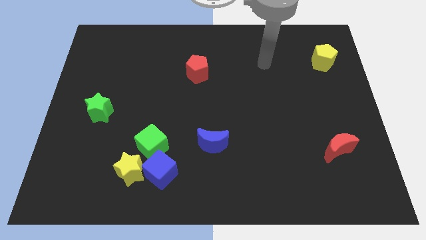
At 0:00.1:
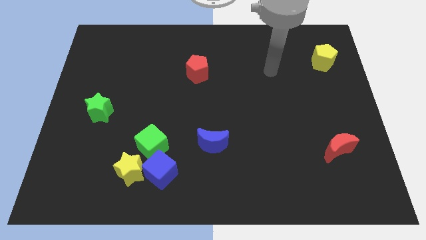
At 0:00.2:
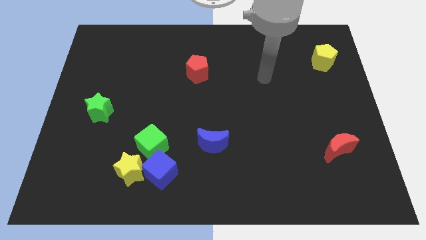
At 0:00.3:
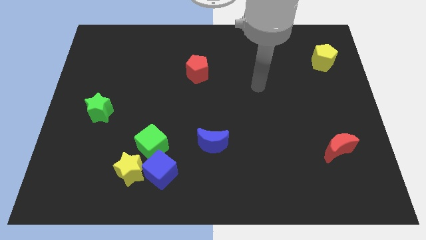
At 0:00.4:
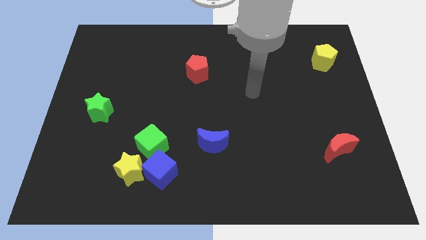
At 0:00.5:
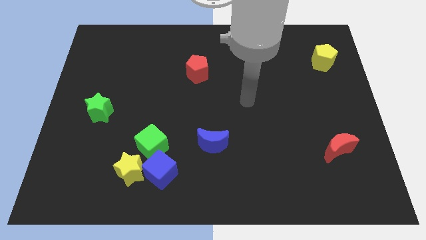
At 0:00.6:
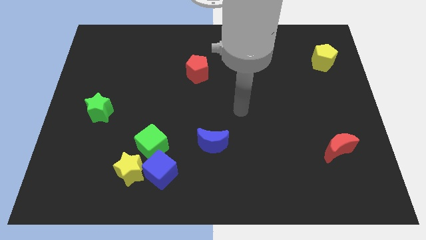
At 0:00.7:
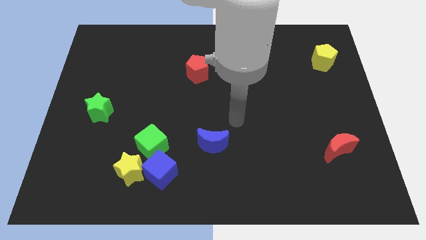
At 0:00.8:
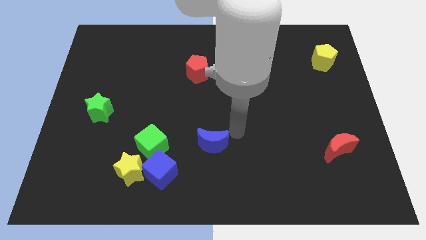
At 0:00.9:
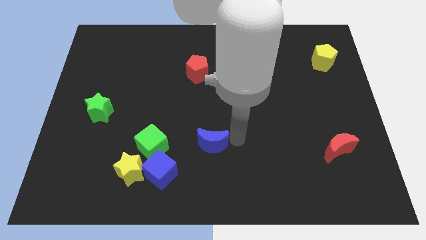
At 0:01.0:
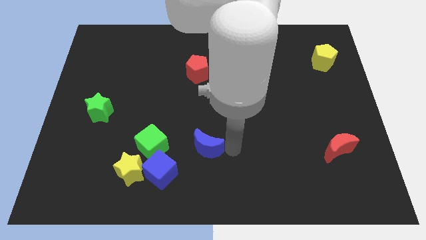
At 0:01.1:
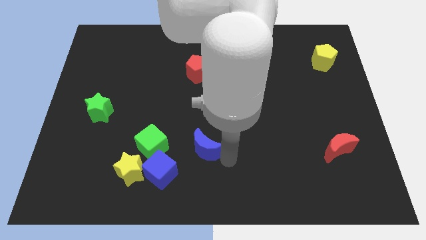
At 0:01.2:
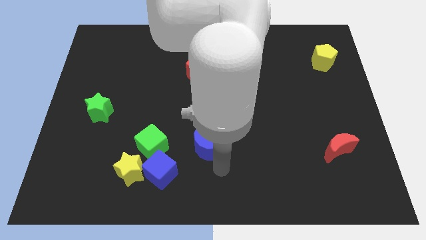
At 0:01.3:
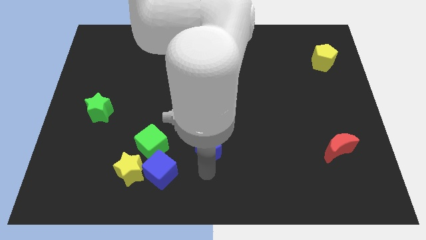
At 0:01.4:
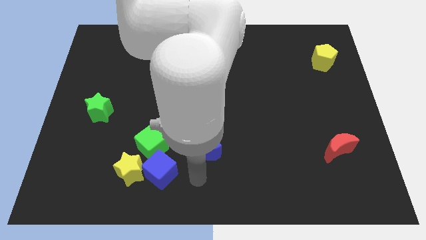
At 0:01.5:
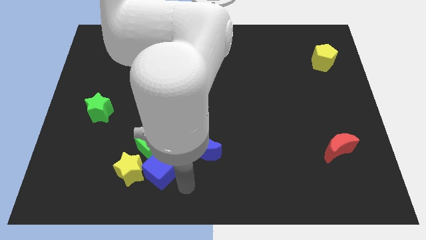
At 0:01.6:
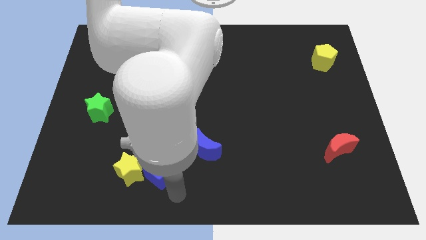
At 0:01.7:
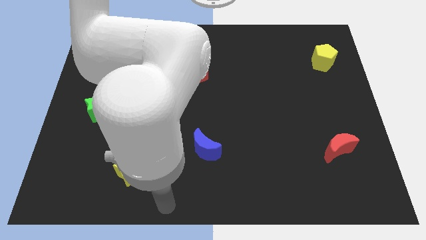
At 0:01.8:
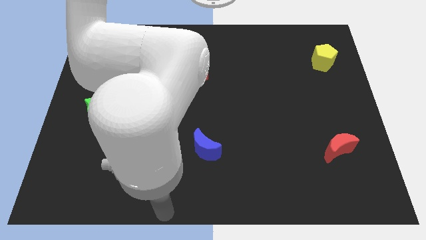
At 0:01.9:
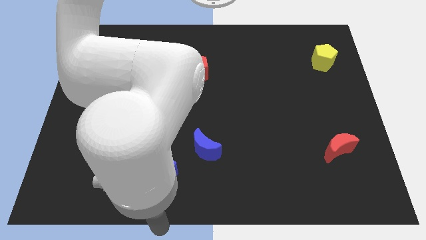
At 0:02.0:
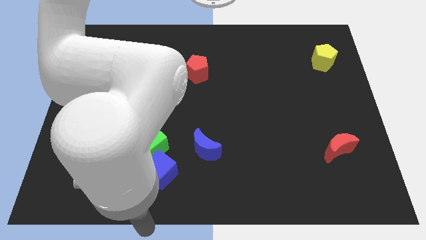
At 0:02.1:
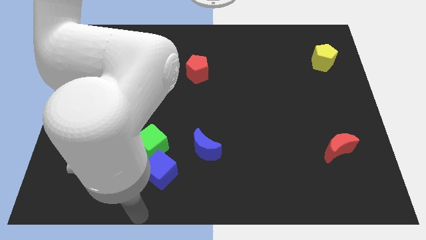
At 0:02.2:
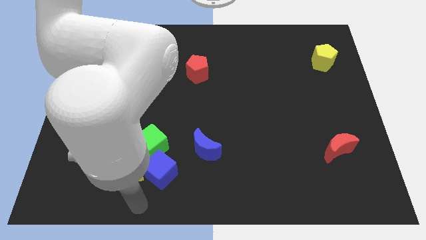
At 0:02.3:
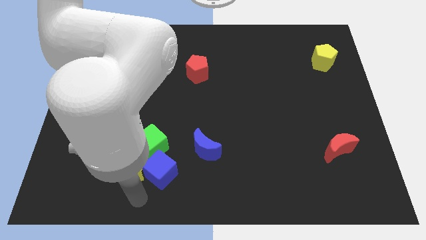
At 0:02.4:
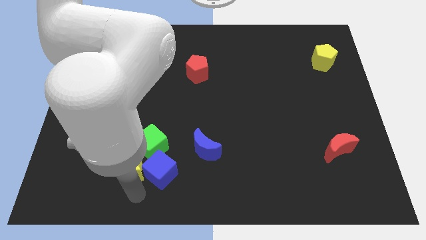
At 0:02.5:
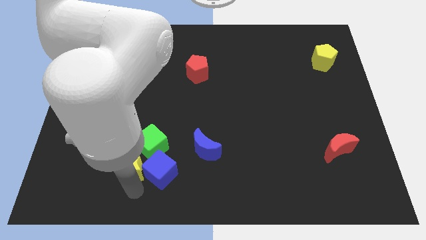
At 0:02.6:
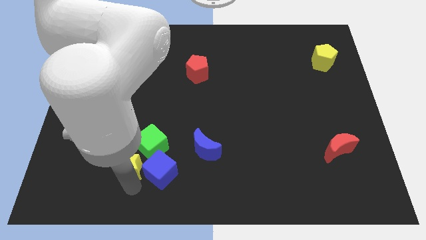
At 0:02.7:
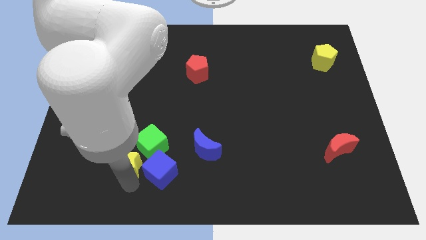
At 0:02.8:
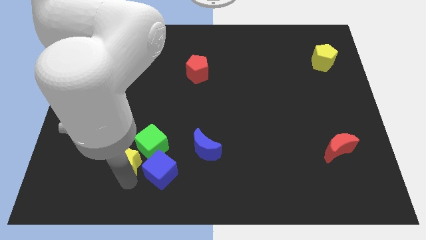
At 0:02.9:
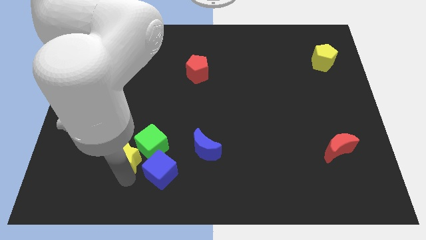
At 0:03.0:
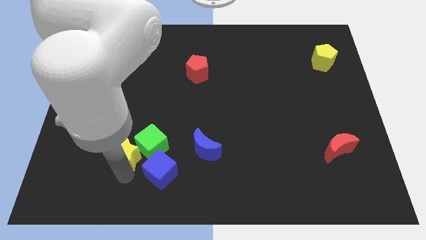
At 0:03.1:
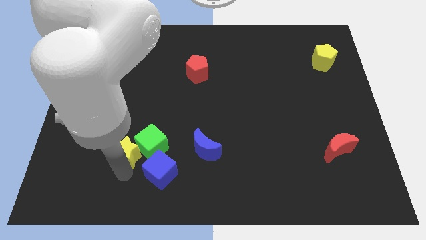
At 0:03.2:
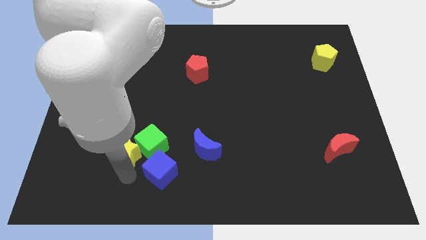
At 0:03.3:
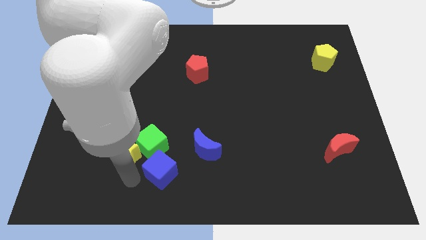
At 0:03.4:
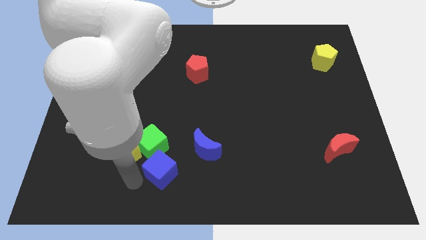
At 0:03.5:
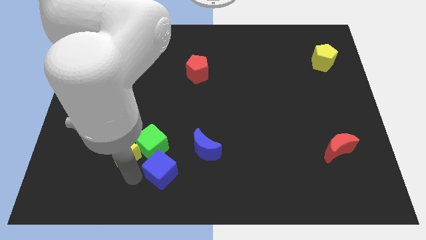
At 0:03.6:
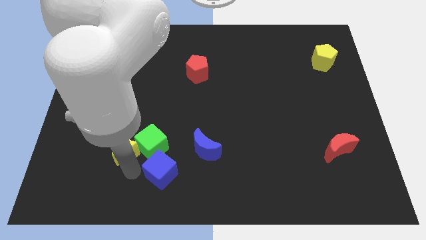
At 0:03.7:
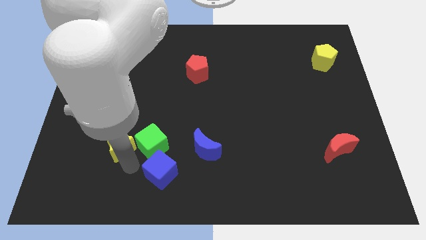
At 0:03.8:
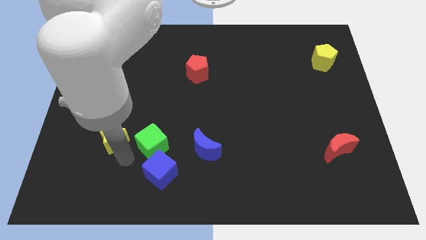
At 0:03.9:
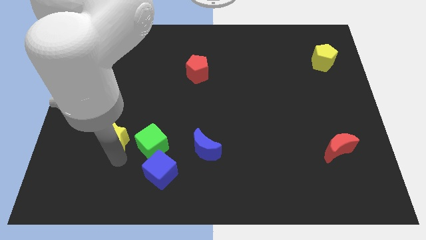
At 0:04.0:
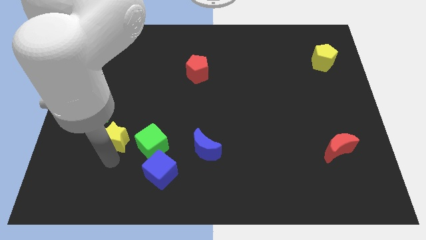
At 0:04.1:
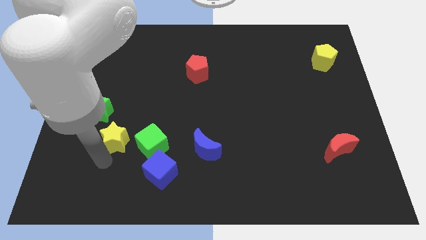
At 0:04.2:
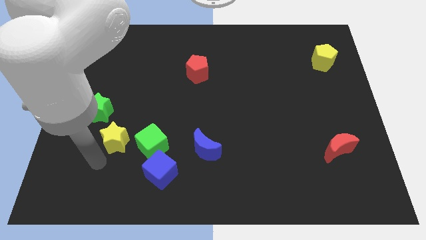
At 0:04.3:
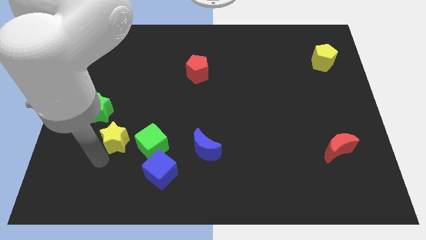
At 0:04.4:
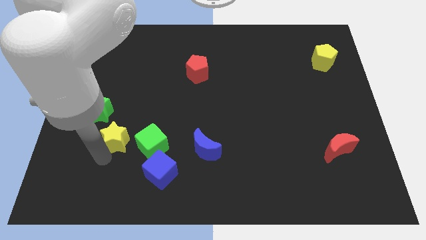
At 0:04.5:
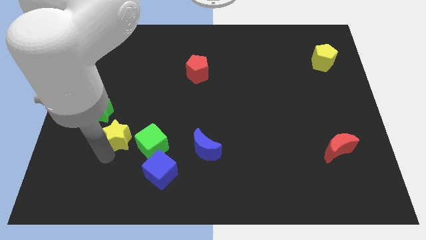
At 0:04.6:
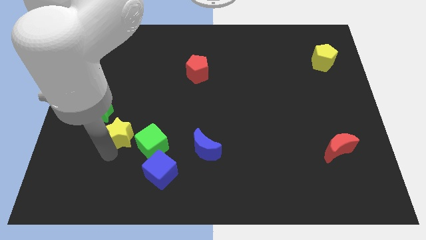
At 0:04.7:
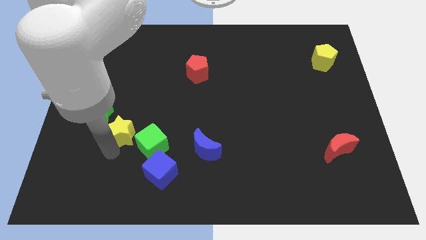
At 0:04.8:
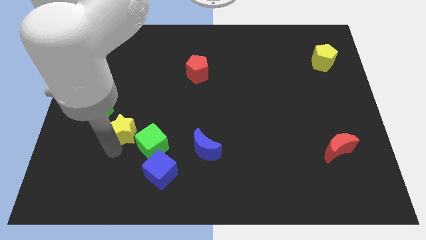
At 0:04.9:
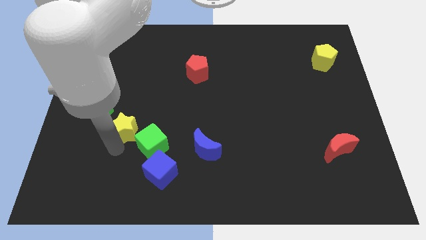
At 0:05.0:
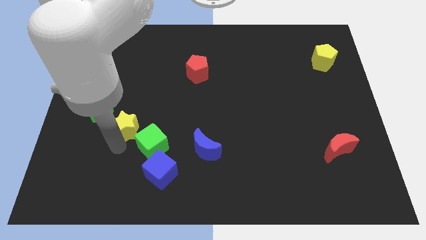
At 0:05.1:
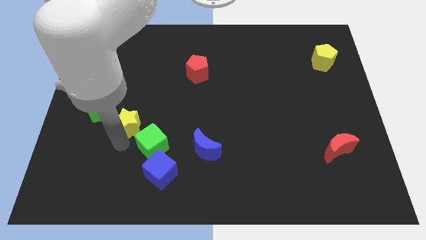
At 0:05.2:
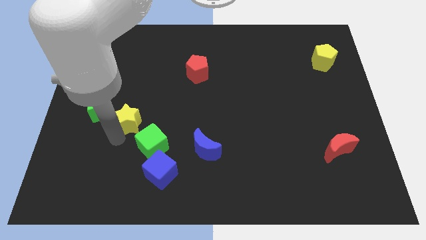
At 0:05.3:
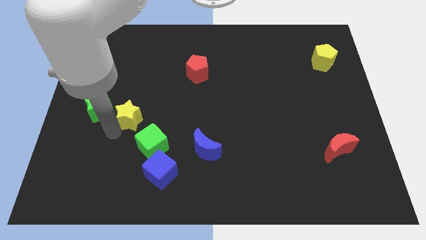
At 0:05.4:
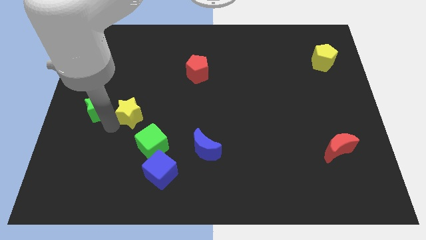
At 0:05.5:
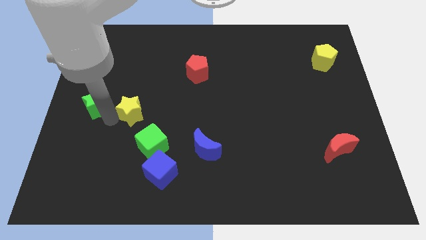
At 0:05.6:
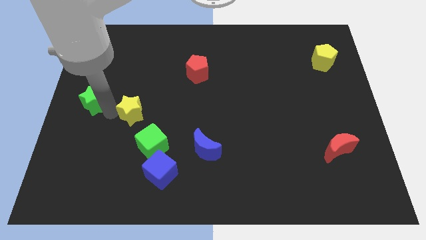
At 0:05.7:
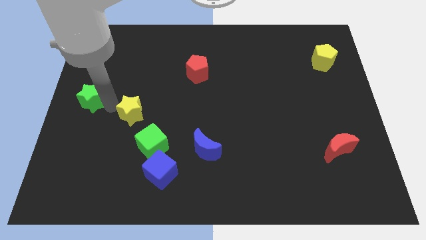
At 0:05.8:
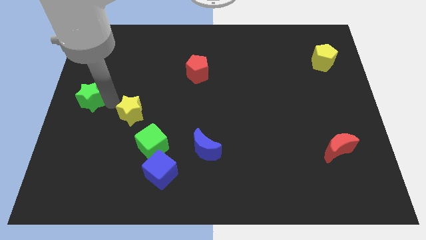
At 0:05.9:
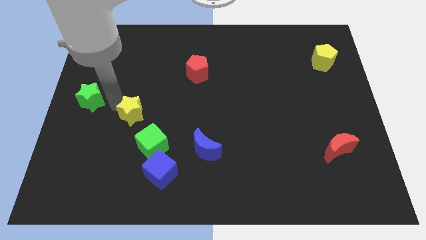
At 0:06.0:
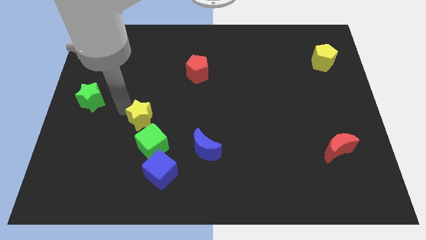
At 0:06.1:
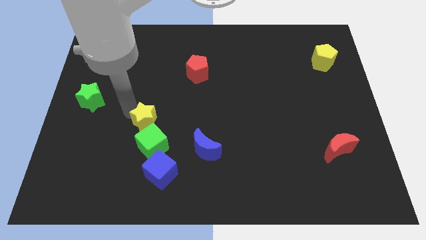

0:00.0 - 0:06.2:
put the yellow star to the top of the blue cube
